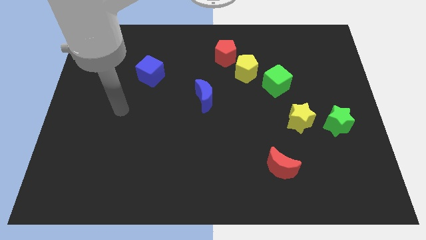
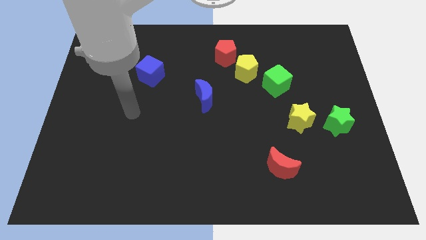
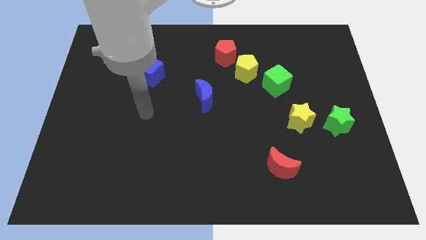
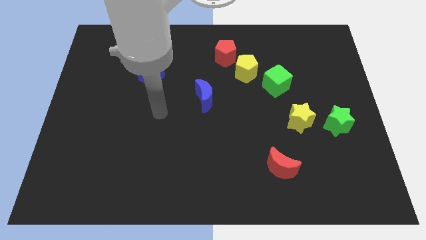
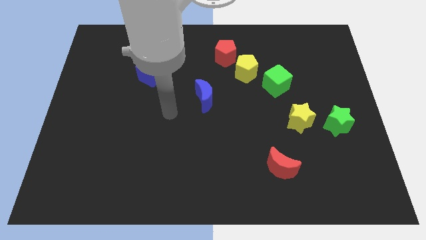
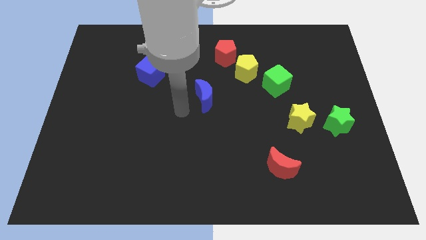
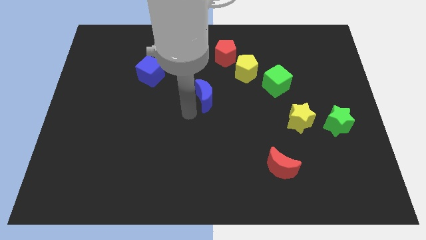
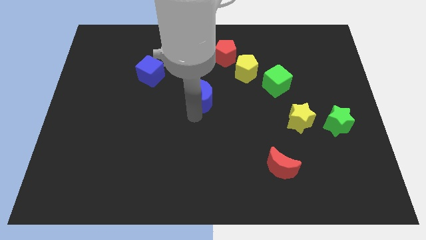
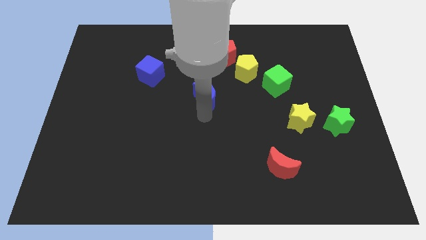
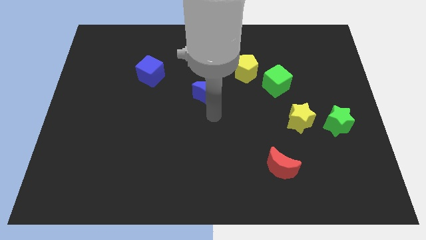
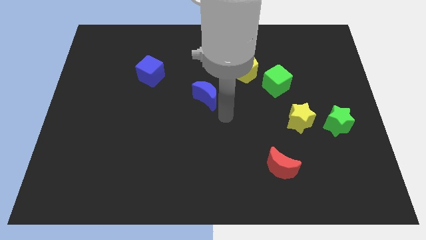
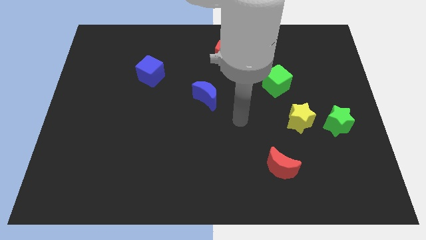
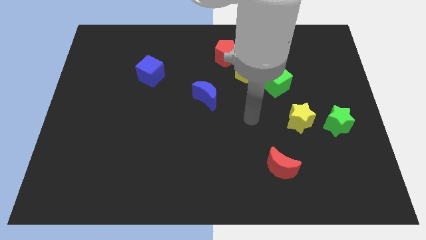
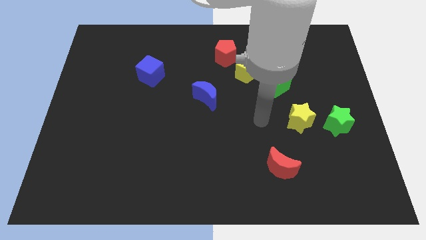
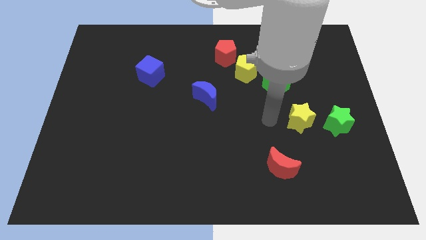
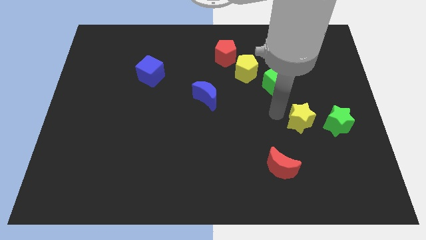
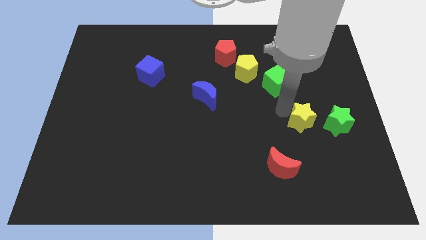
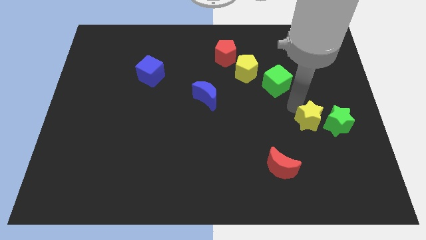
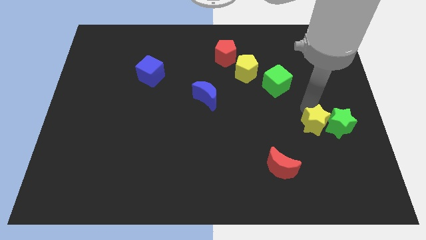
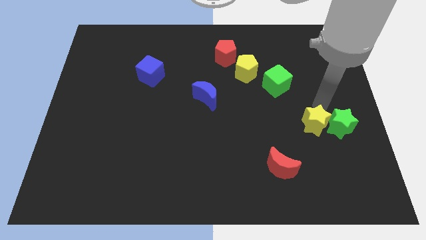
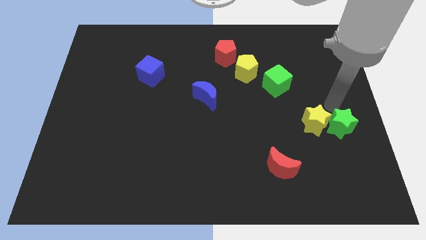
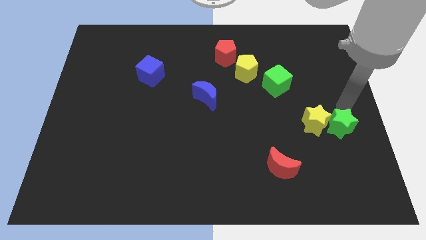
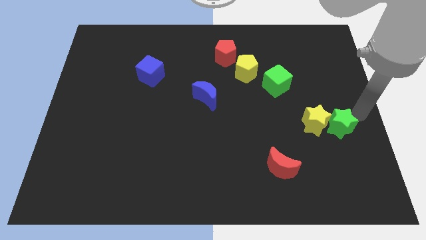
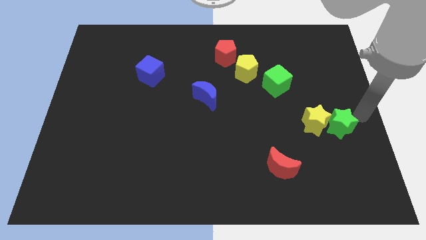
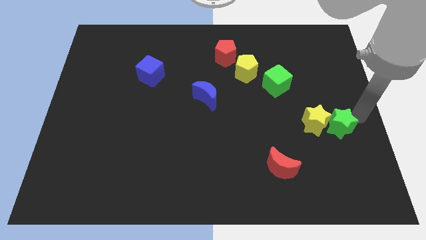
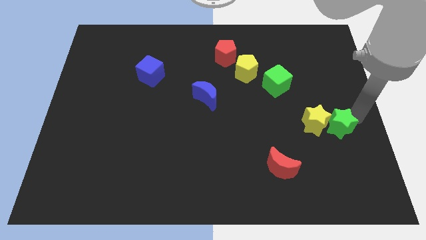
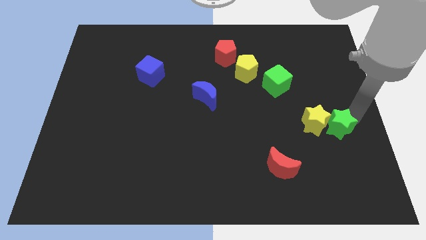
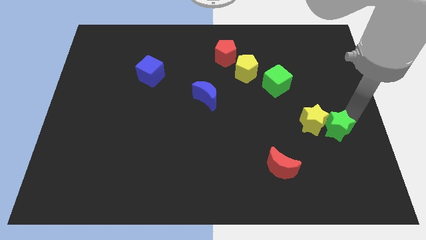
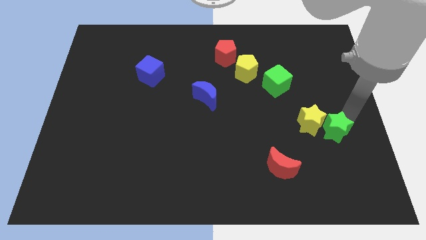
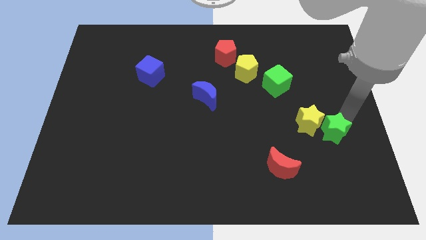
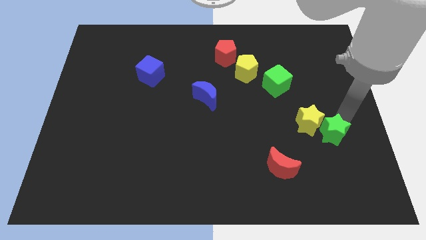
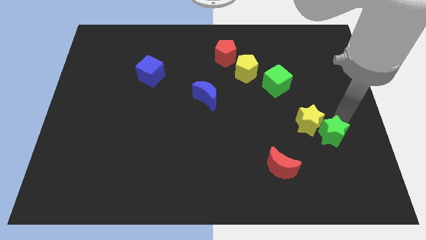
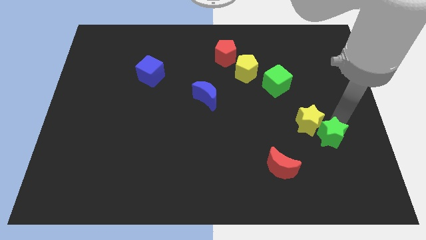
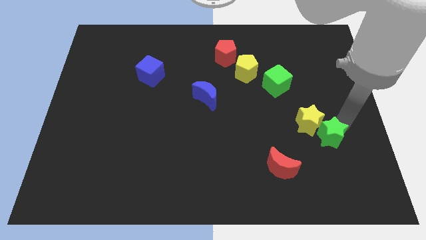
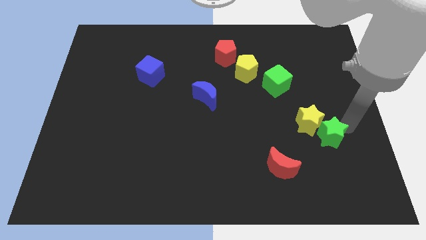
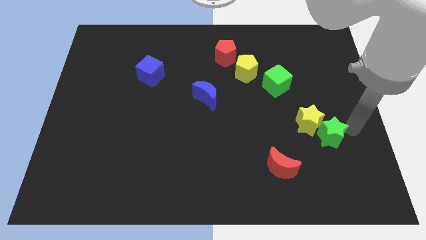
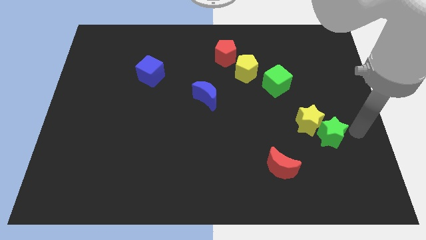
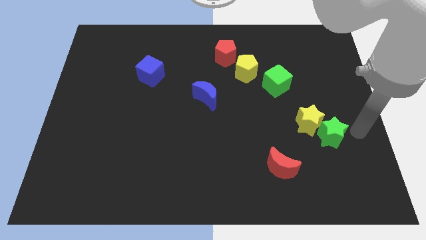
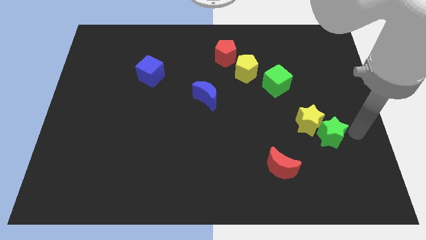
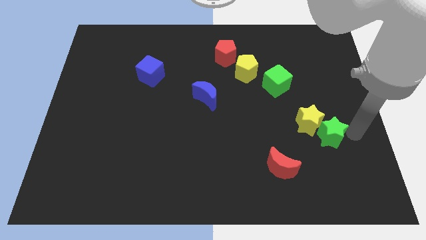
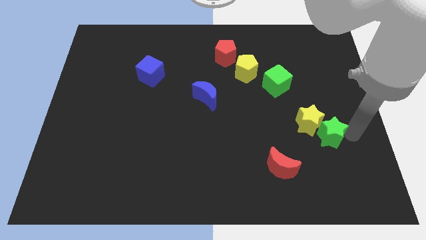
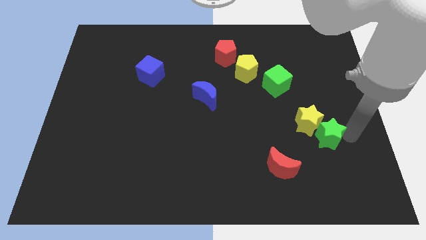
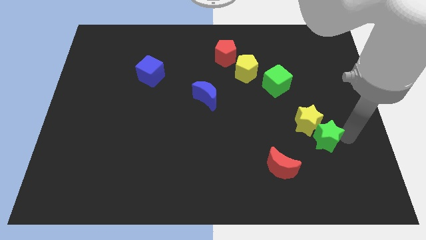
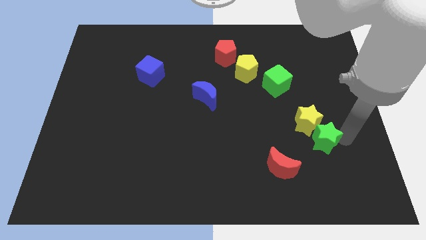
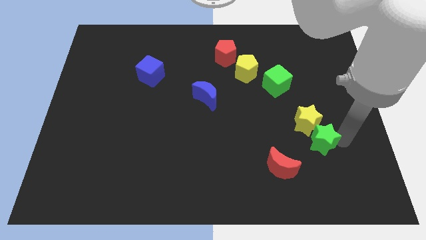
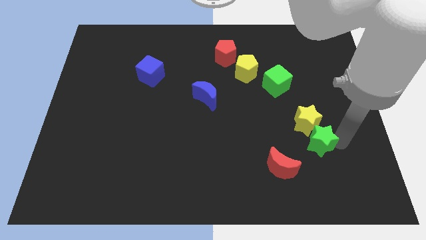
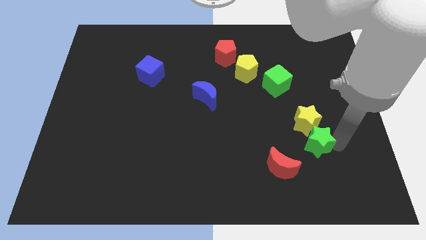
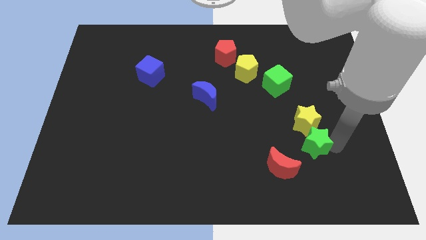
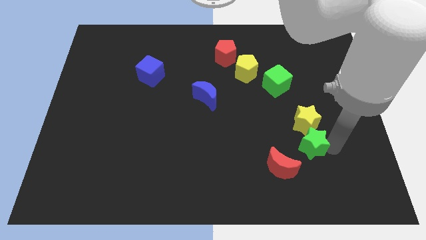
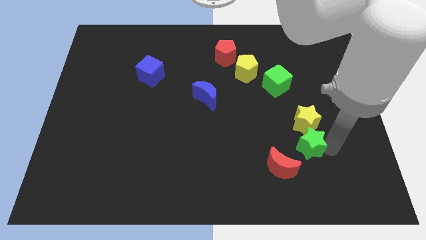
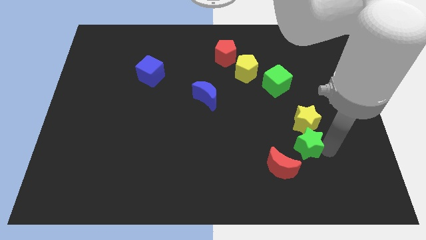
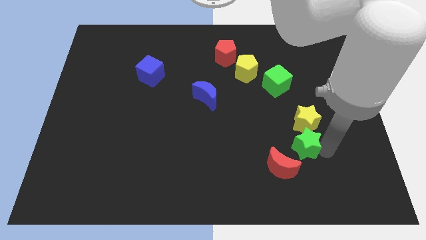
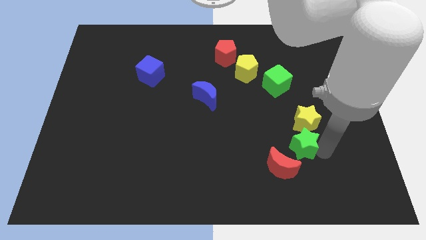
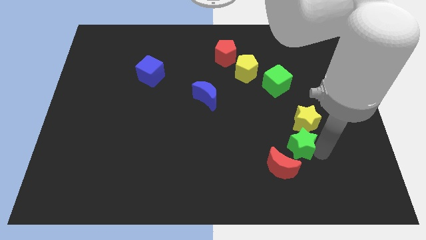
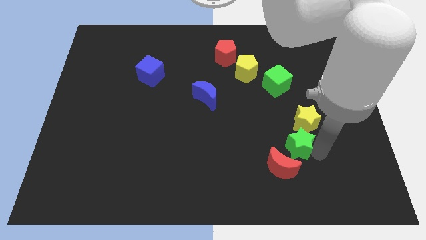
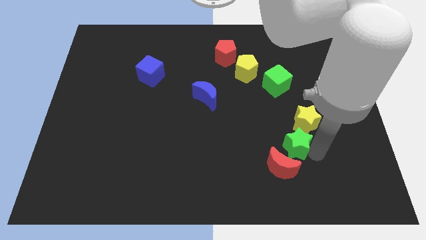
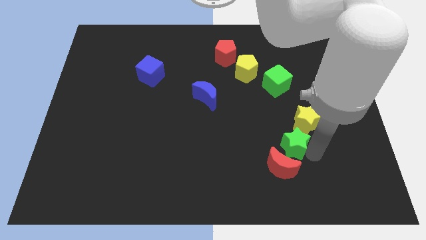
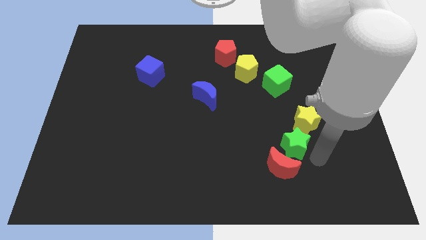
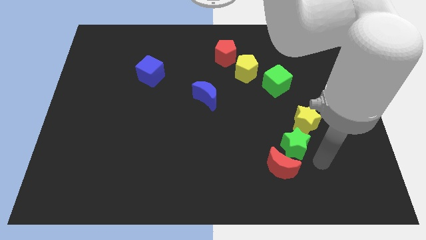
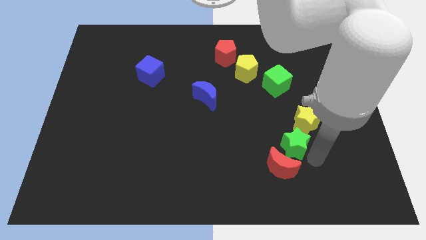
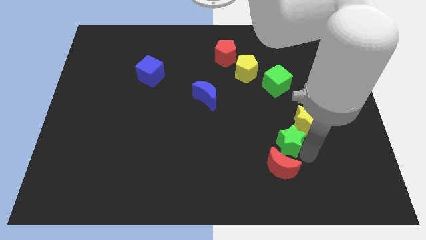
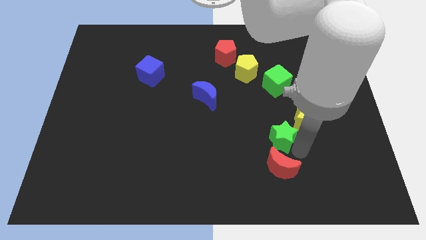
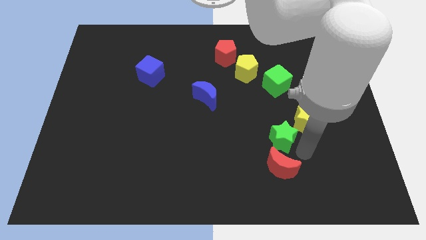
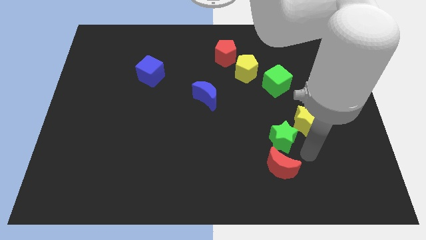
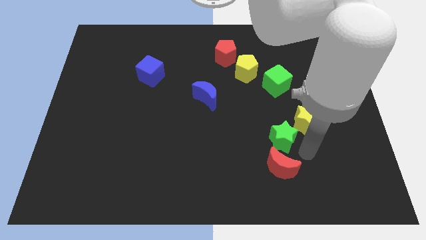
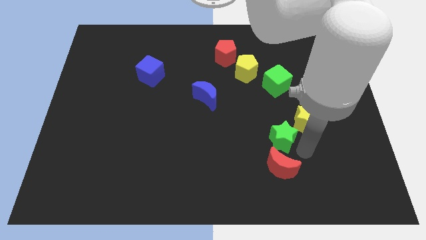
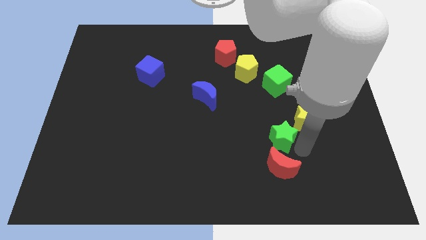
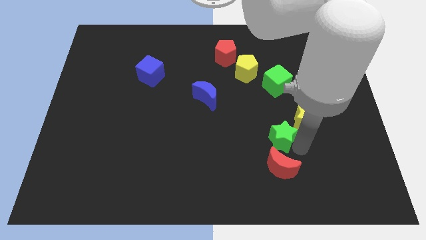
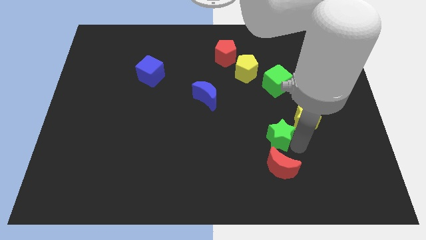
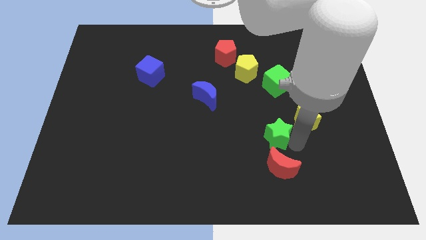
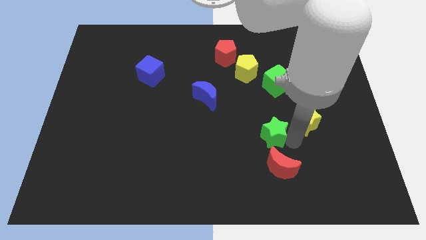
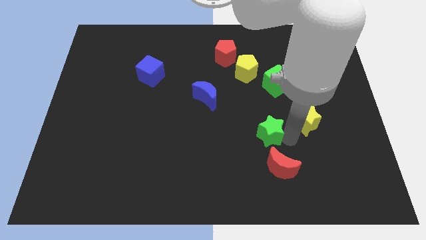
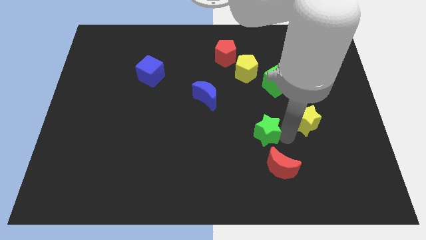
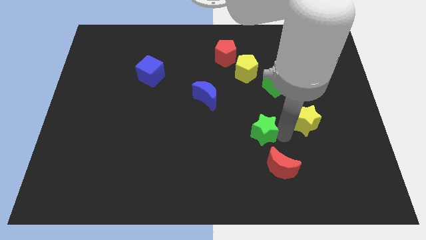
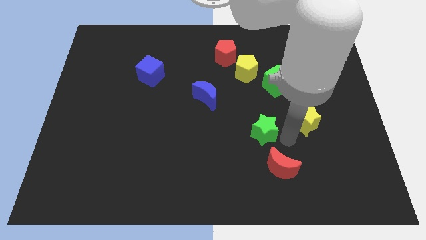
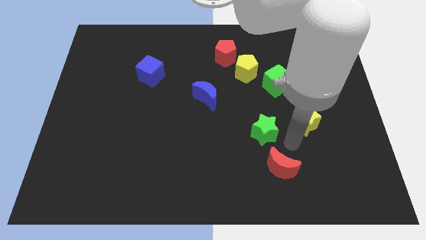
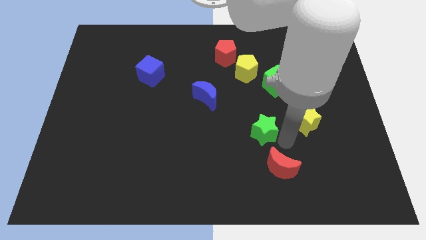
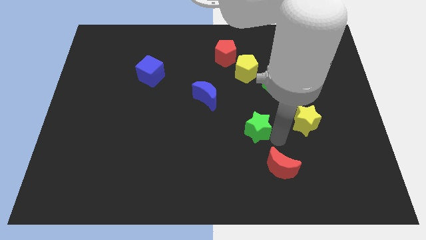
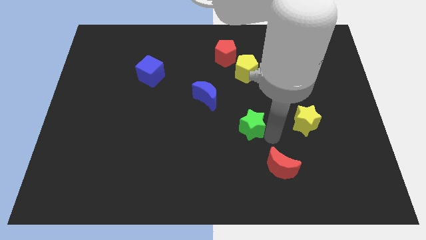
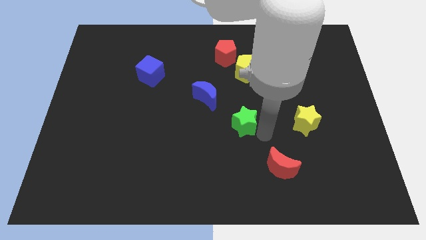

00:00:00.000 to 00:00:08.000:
move the green star diagonally down and to the right of the blue moon
